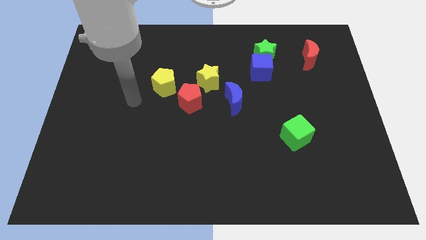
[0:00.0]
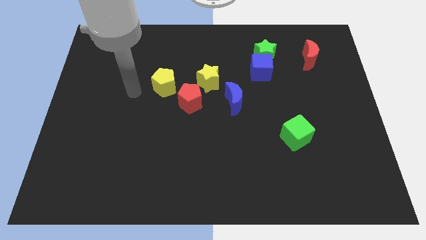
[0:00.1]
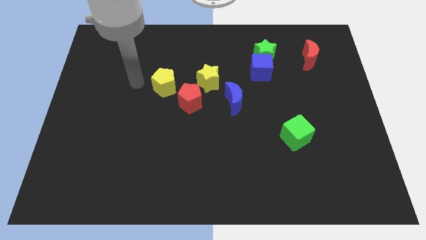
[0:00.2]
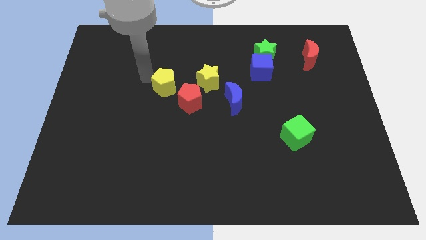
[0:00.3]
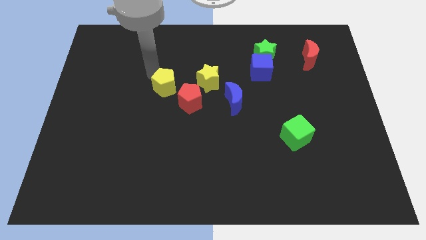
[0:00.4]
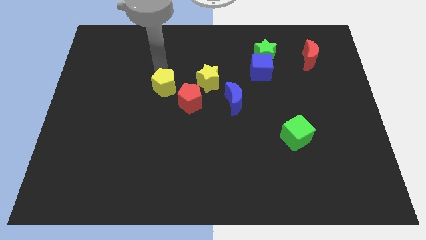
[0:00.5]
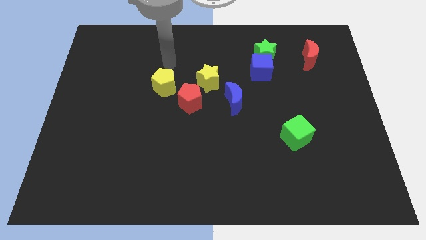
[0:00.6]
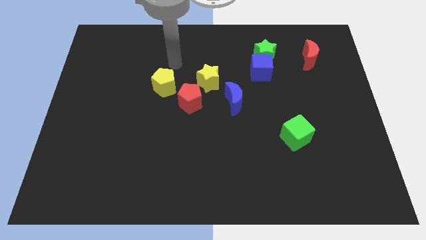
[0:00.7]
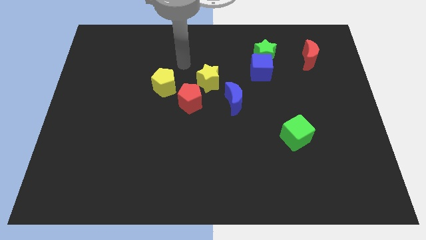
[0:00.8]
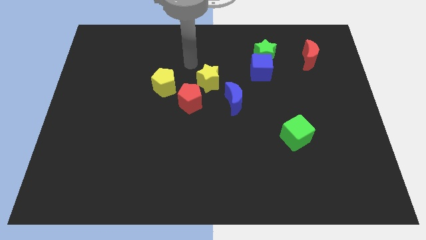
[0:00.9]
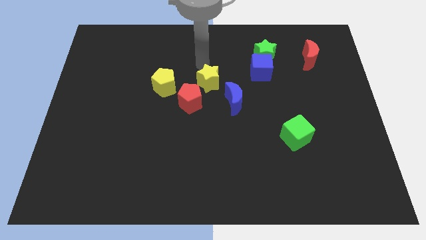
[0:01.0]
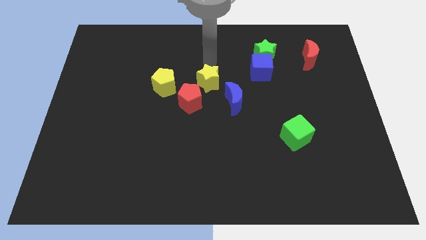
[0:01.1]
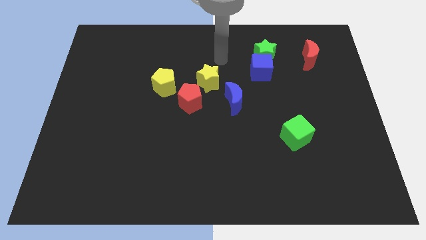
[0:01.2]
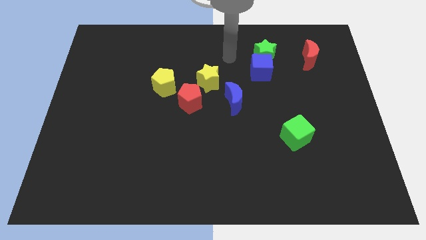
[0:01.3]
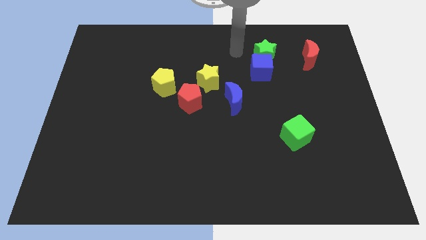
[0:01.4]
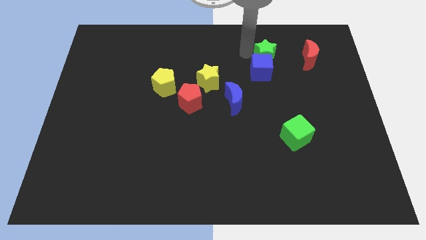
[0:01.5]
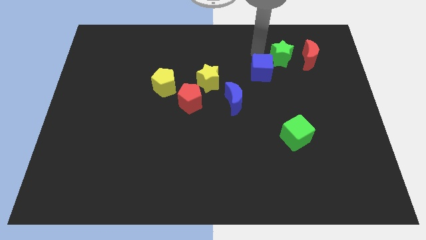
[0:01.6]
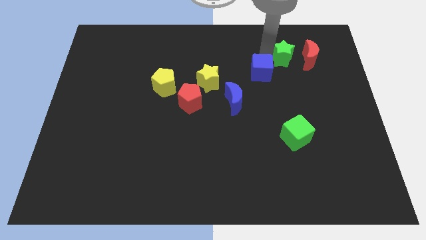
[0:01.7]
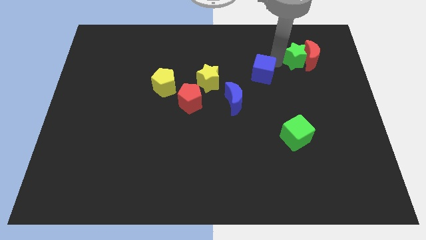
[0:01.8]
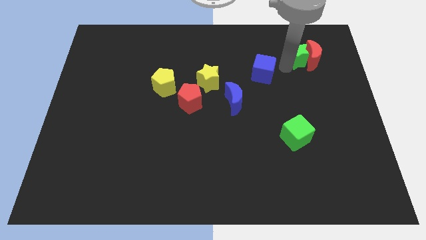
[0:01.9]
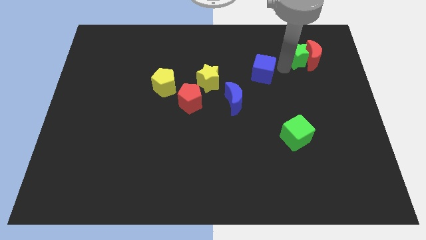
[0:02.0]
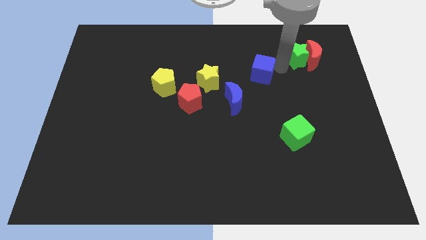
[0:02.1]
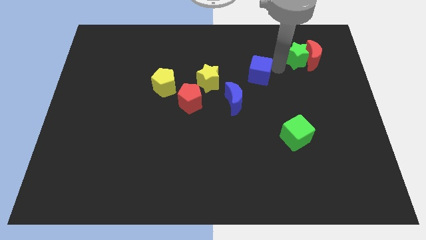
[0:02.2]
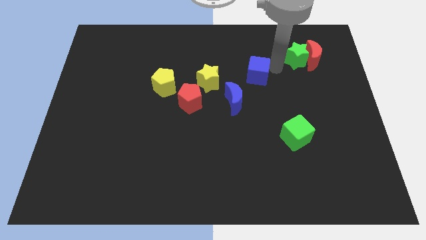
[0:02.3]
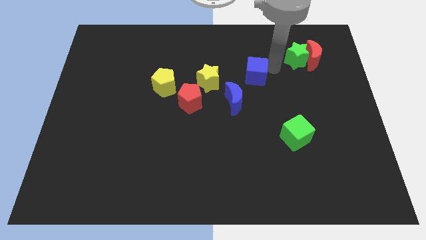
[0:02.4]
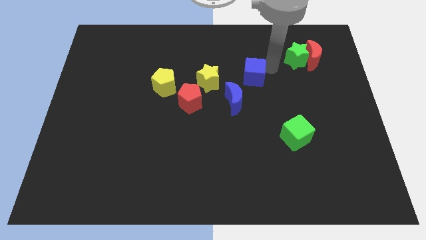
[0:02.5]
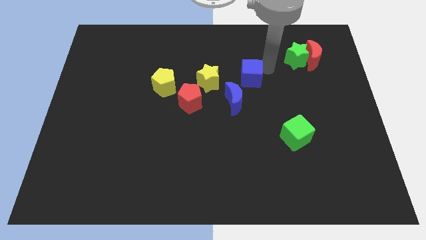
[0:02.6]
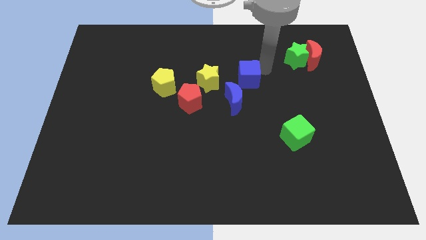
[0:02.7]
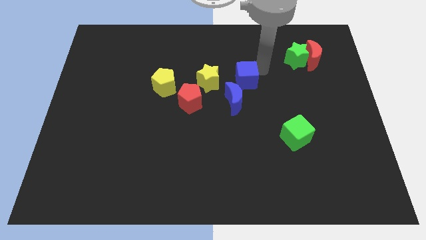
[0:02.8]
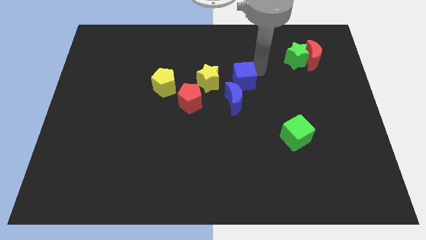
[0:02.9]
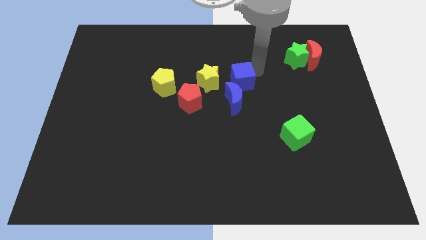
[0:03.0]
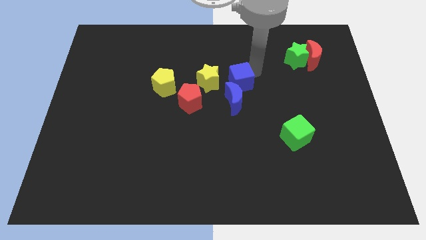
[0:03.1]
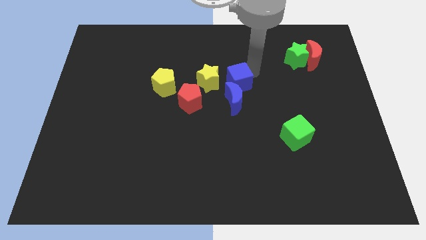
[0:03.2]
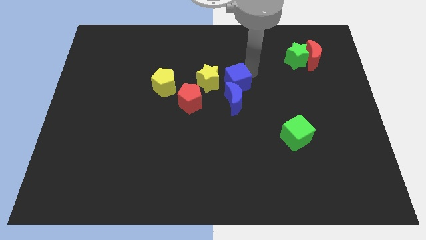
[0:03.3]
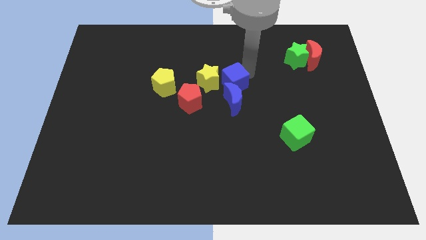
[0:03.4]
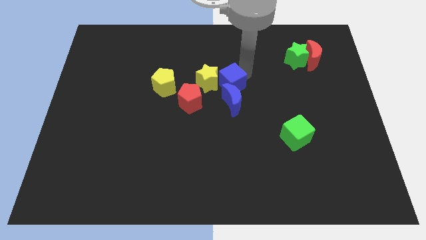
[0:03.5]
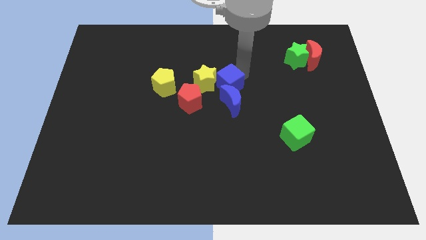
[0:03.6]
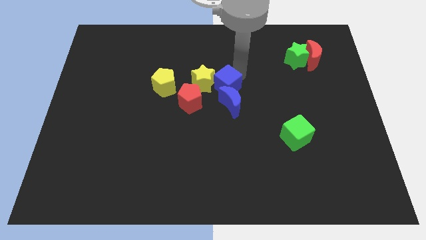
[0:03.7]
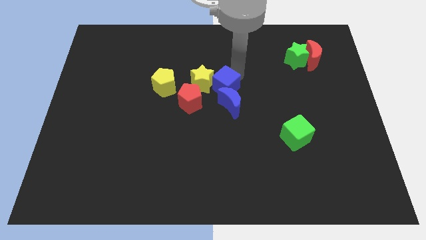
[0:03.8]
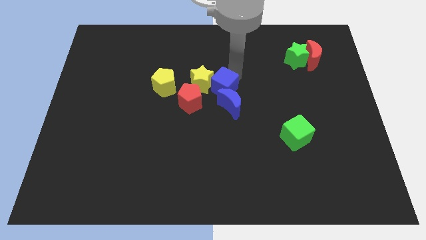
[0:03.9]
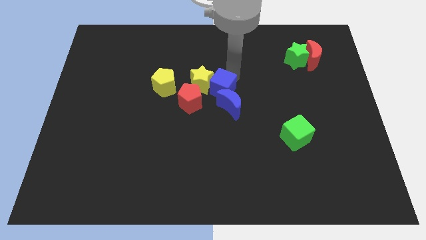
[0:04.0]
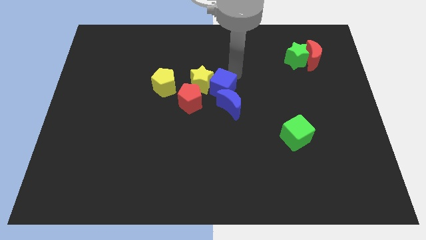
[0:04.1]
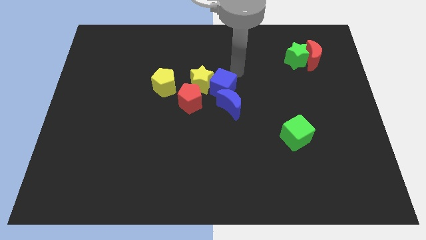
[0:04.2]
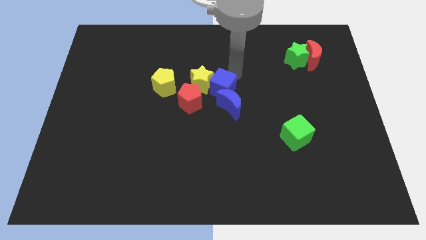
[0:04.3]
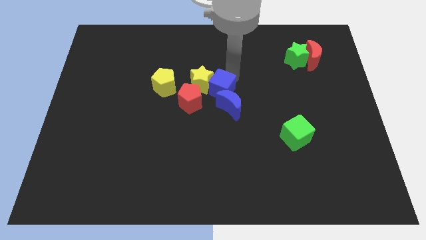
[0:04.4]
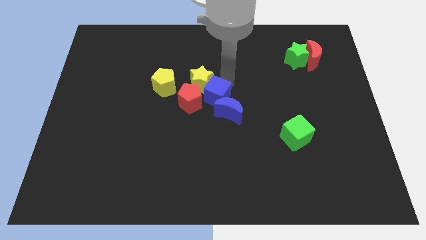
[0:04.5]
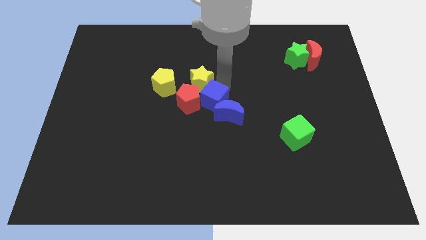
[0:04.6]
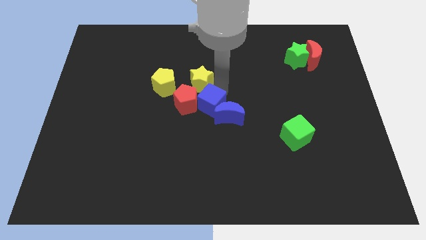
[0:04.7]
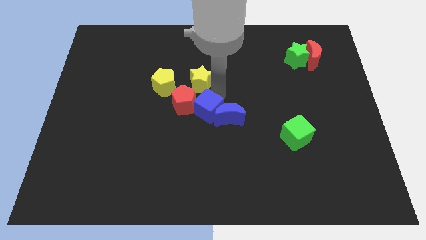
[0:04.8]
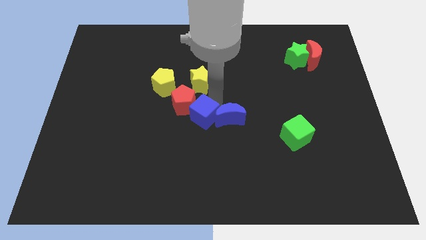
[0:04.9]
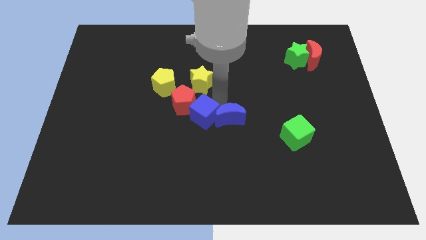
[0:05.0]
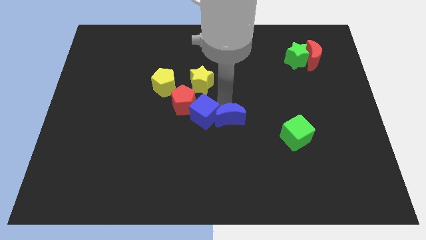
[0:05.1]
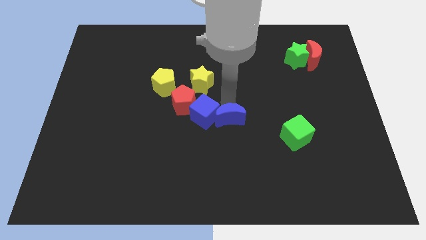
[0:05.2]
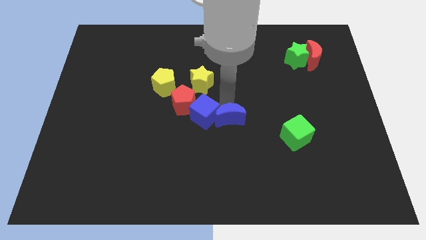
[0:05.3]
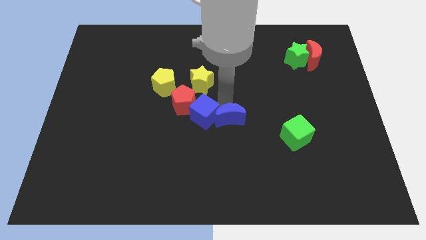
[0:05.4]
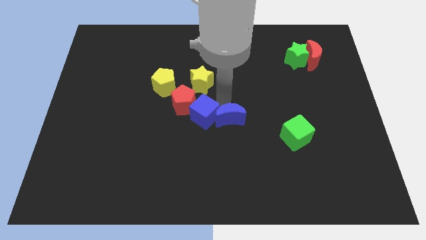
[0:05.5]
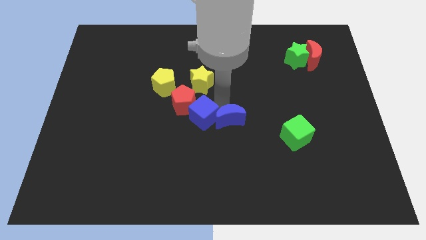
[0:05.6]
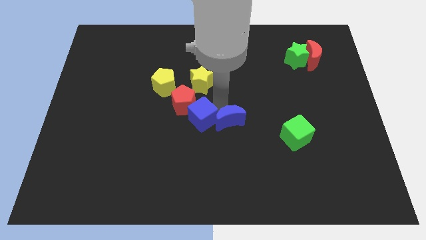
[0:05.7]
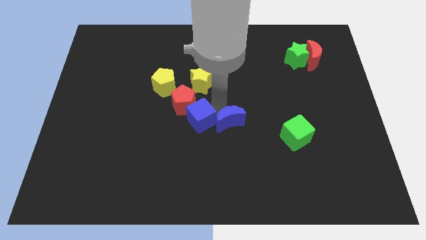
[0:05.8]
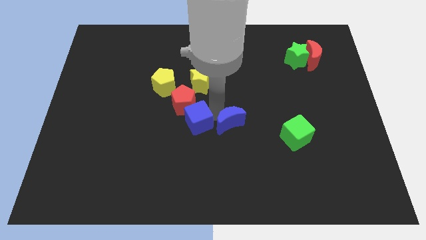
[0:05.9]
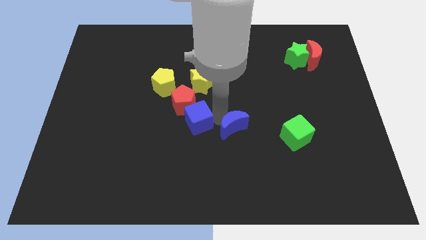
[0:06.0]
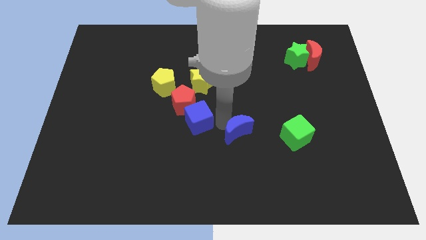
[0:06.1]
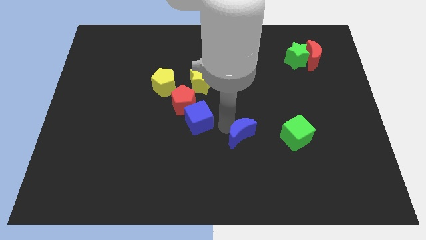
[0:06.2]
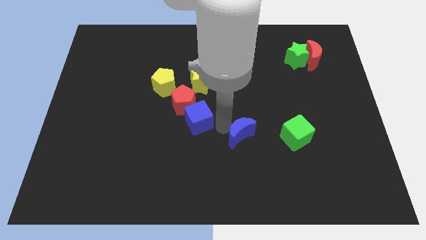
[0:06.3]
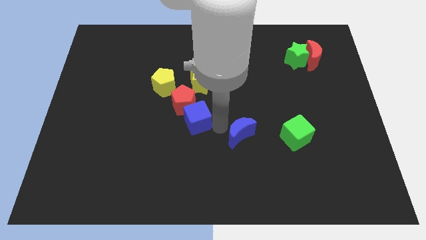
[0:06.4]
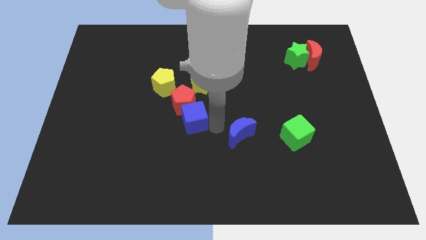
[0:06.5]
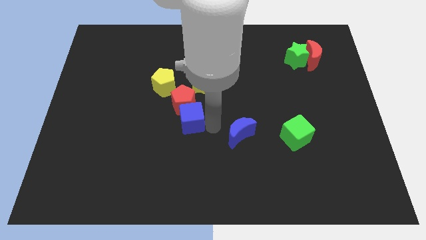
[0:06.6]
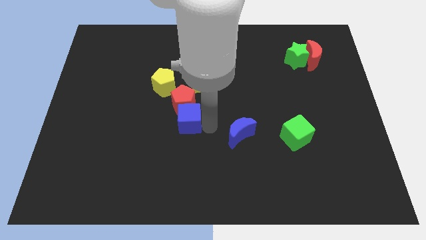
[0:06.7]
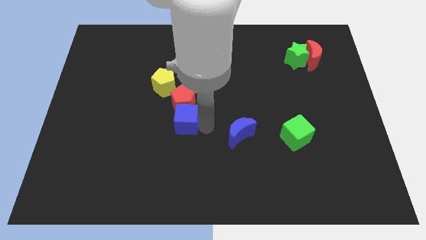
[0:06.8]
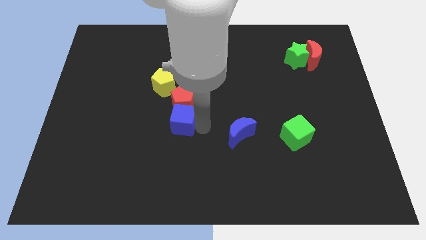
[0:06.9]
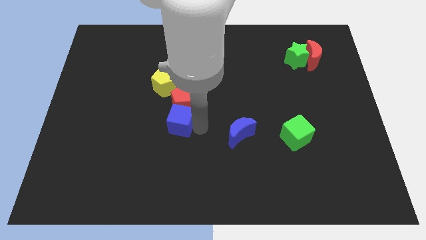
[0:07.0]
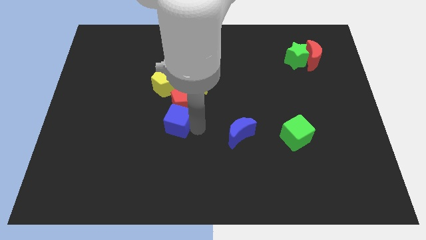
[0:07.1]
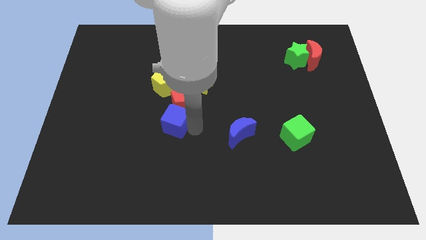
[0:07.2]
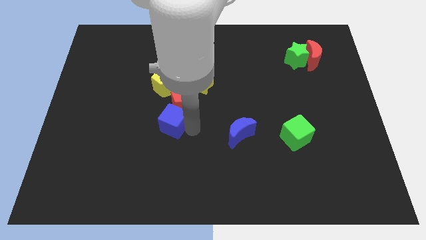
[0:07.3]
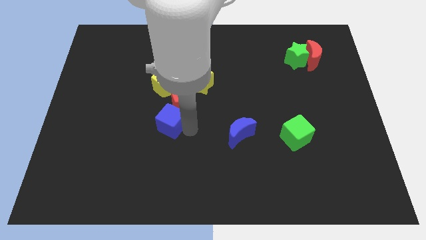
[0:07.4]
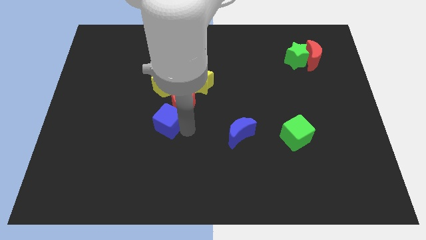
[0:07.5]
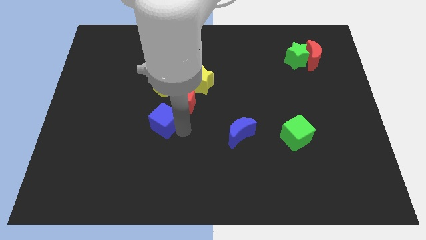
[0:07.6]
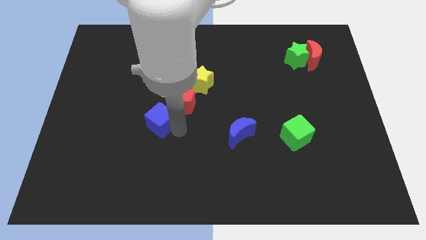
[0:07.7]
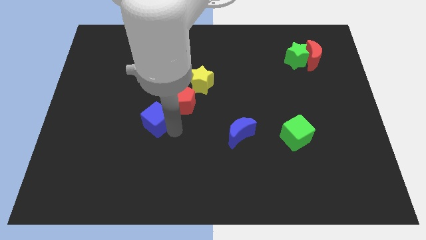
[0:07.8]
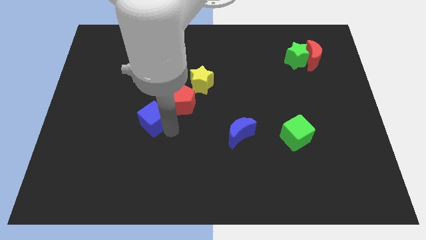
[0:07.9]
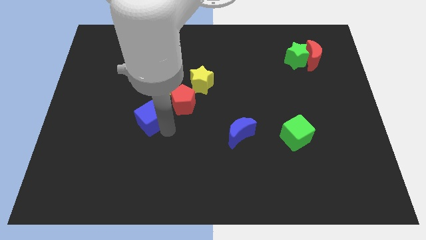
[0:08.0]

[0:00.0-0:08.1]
put the blue cube to the left of the red pentagon
